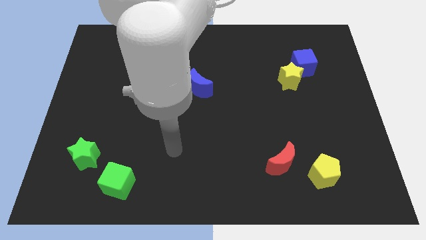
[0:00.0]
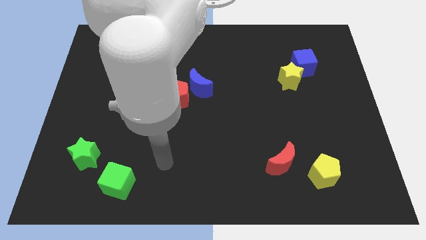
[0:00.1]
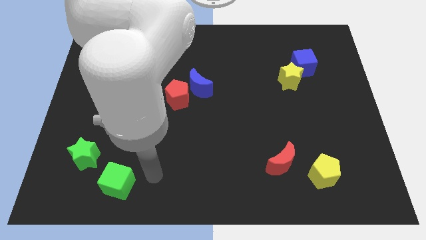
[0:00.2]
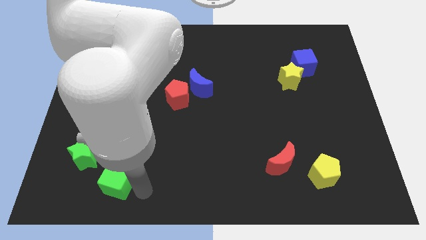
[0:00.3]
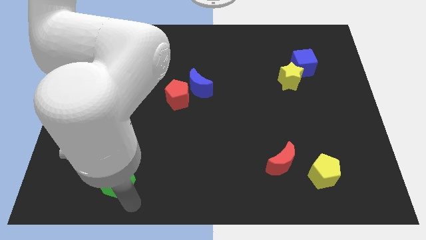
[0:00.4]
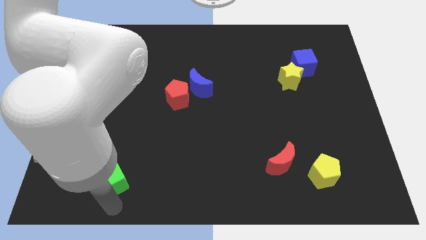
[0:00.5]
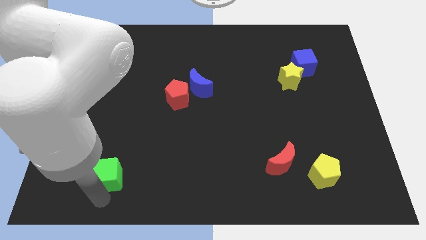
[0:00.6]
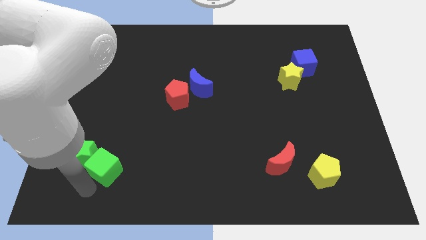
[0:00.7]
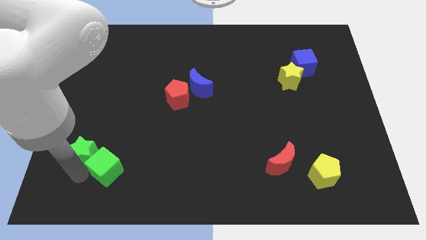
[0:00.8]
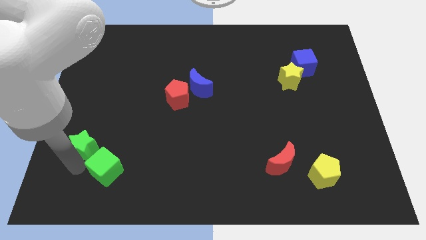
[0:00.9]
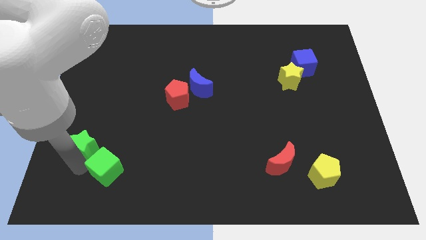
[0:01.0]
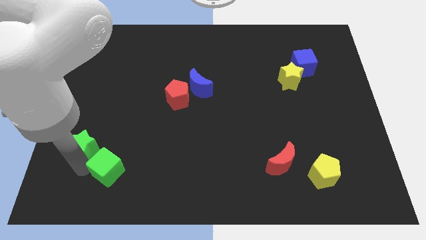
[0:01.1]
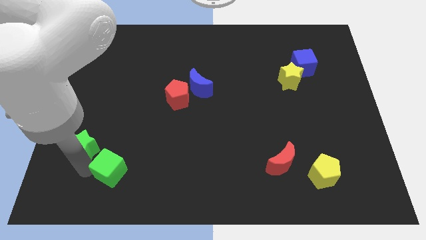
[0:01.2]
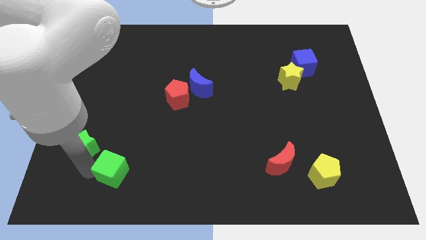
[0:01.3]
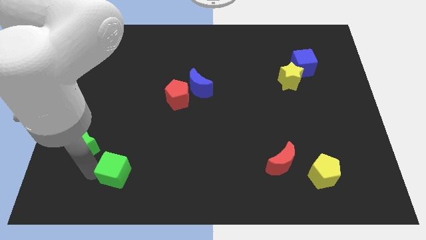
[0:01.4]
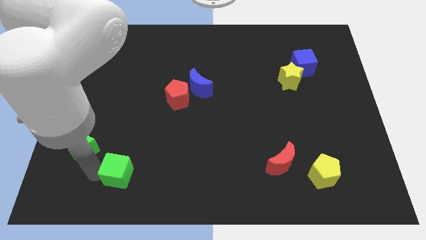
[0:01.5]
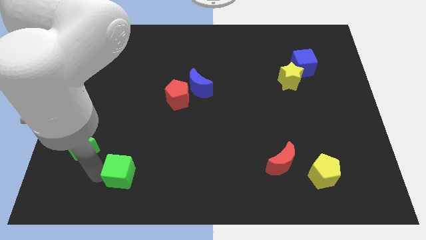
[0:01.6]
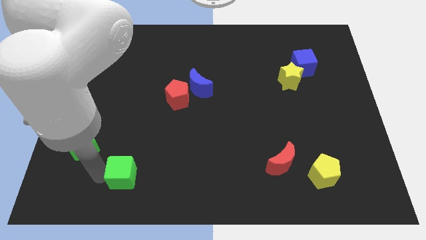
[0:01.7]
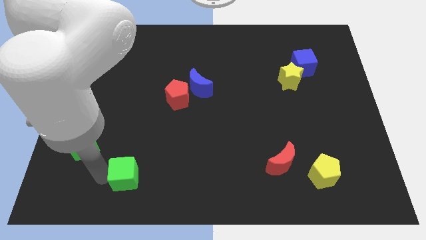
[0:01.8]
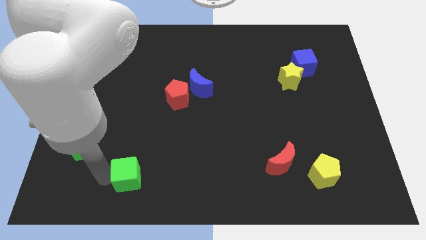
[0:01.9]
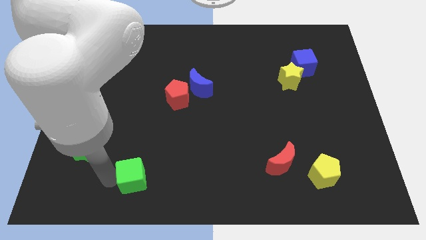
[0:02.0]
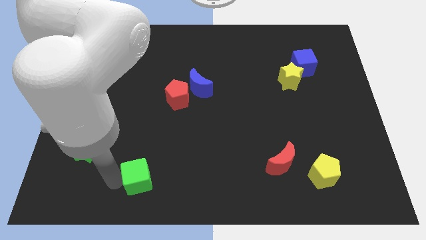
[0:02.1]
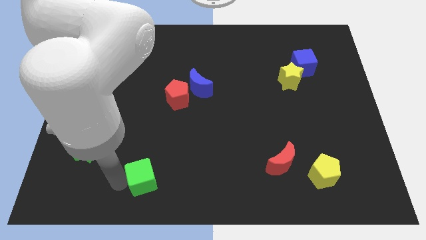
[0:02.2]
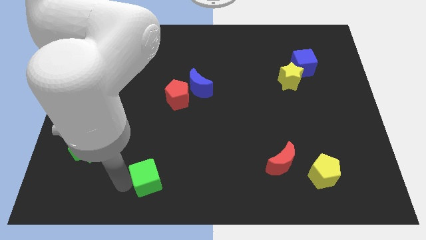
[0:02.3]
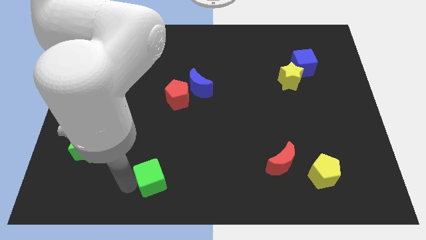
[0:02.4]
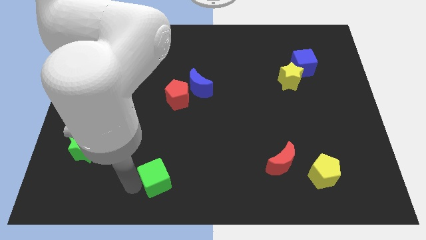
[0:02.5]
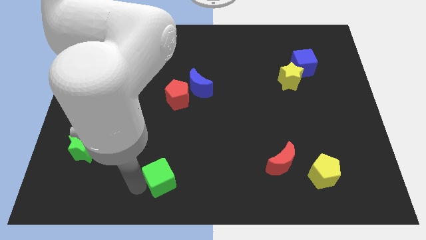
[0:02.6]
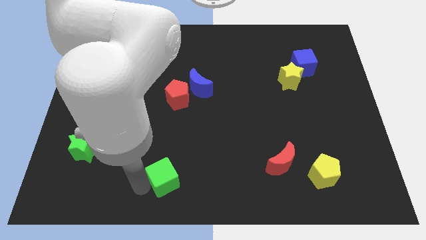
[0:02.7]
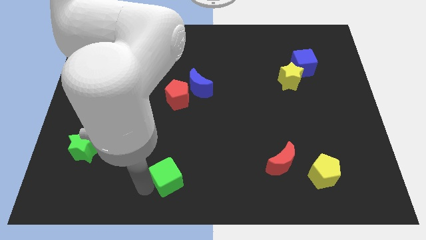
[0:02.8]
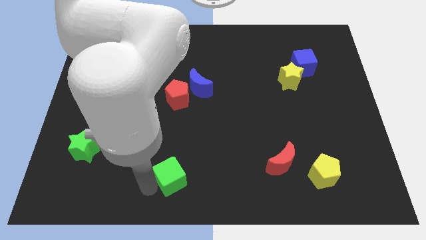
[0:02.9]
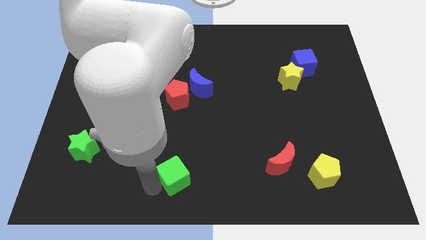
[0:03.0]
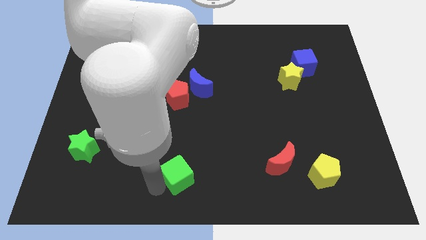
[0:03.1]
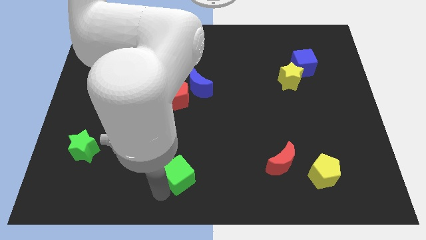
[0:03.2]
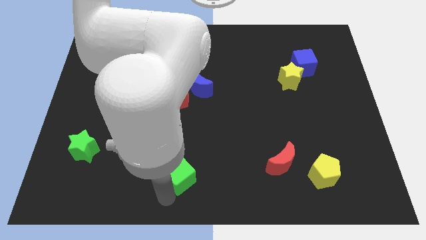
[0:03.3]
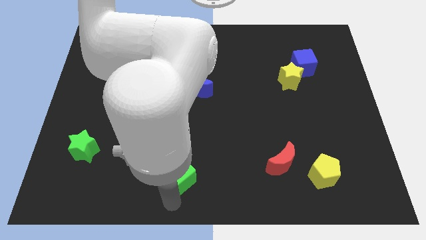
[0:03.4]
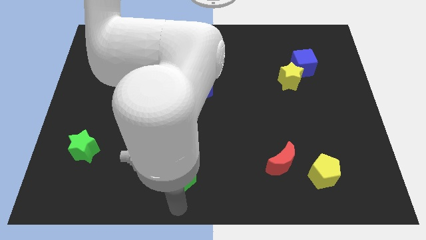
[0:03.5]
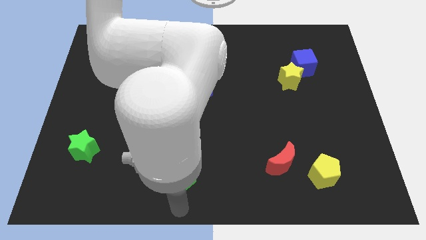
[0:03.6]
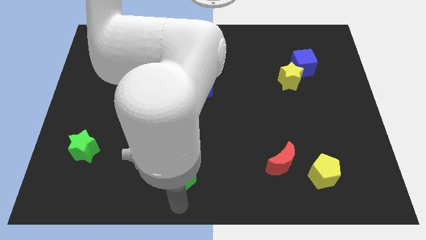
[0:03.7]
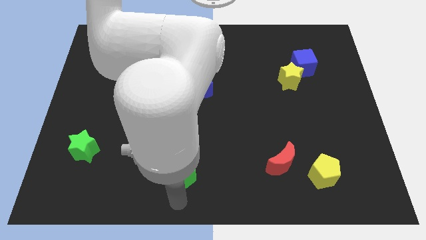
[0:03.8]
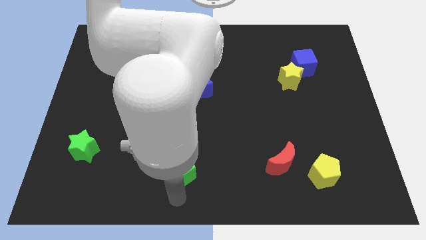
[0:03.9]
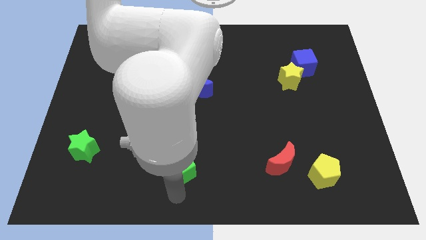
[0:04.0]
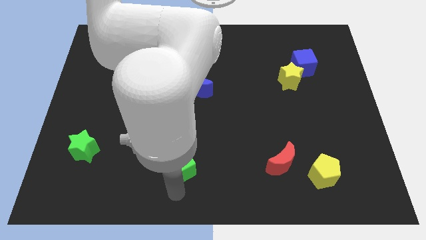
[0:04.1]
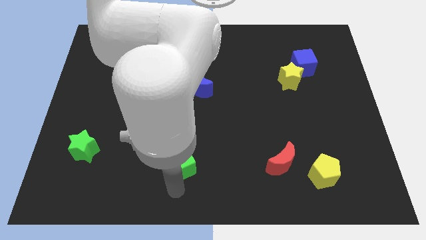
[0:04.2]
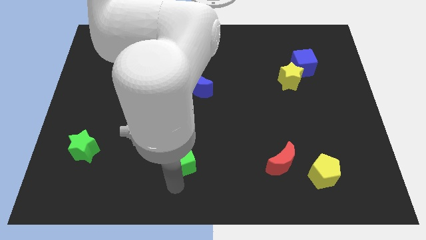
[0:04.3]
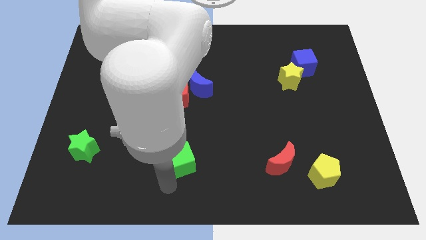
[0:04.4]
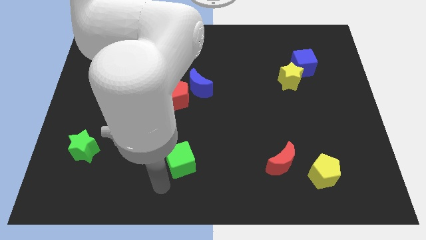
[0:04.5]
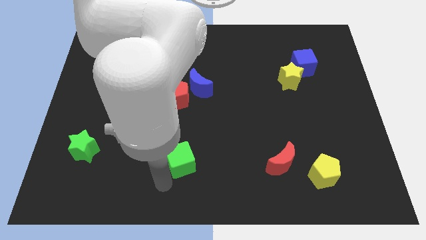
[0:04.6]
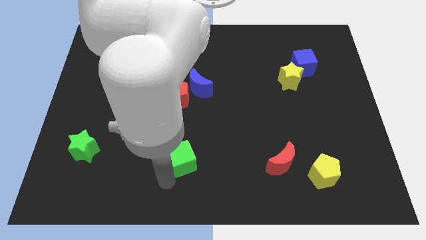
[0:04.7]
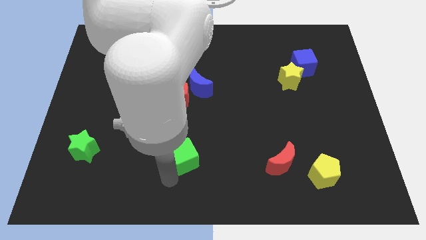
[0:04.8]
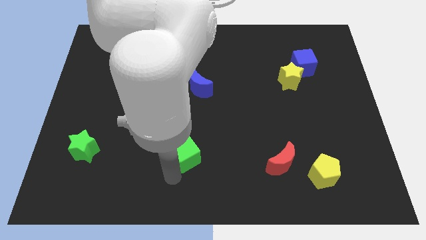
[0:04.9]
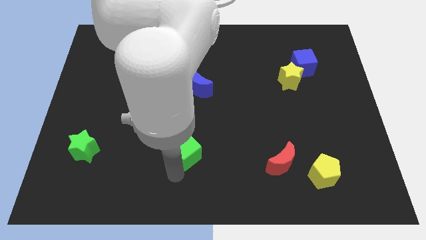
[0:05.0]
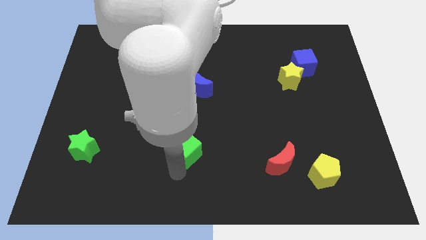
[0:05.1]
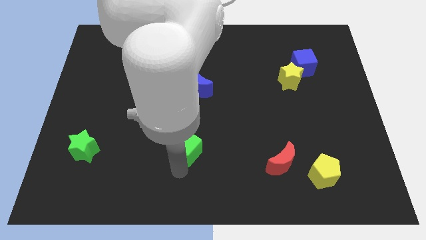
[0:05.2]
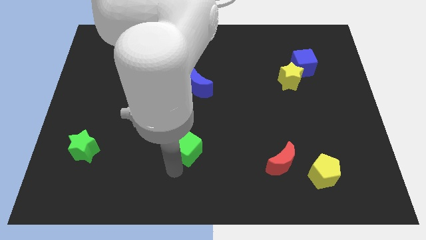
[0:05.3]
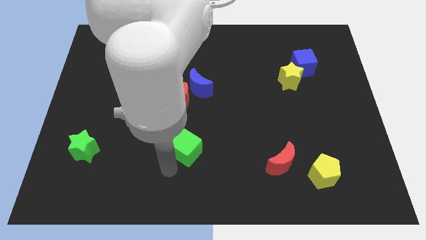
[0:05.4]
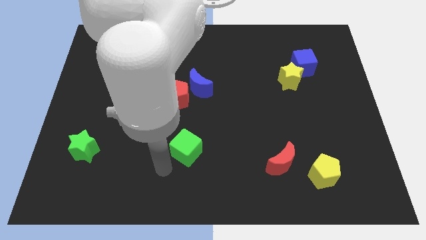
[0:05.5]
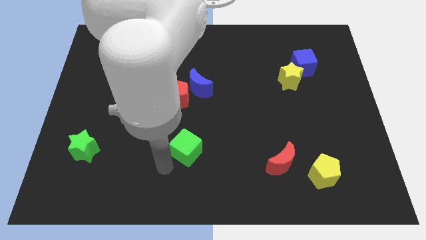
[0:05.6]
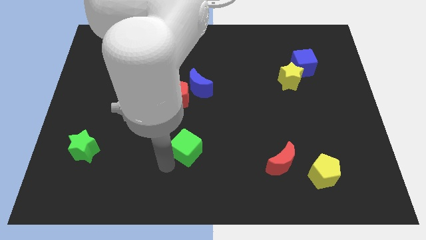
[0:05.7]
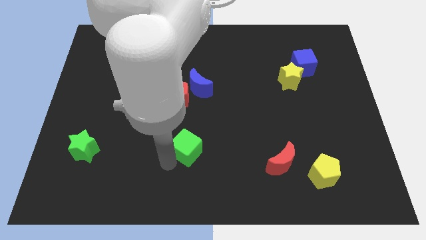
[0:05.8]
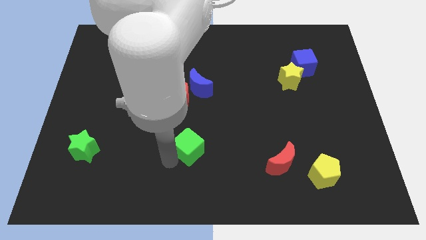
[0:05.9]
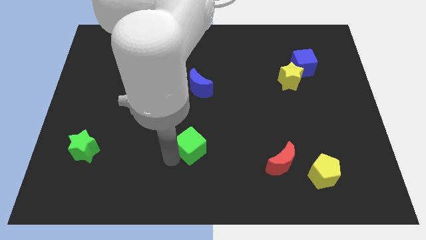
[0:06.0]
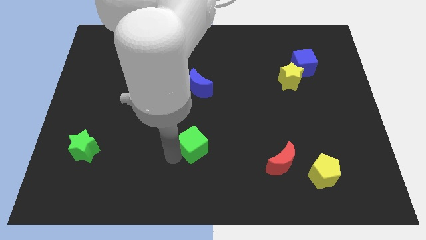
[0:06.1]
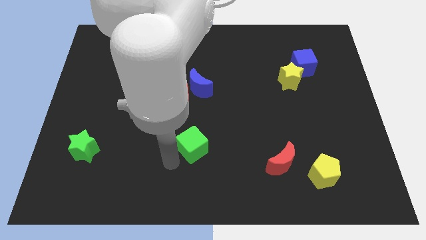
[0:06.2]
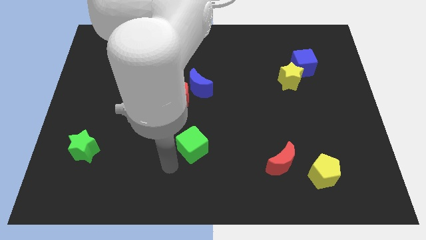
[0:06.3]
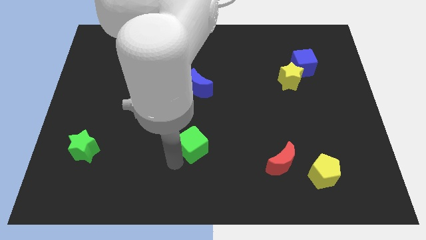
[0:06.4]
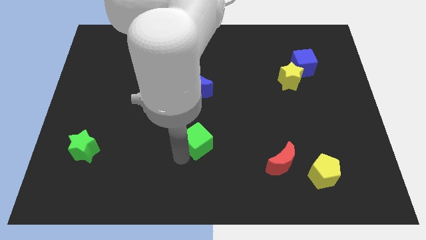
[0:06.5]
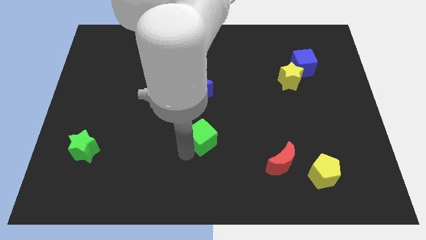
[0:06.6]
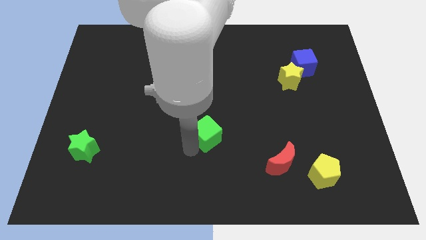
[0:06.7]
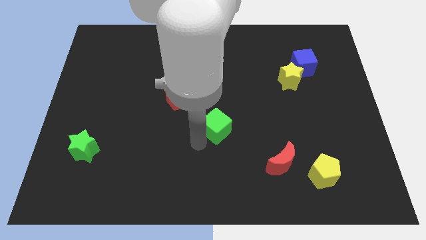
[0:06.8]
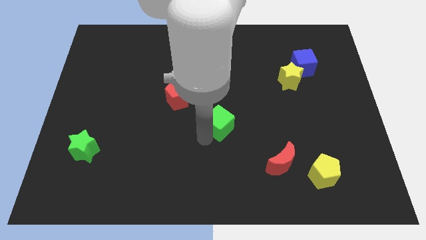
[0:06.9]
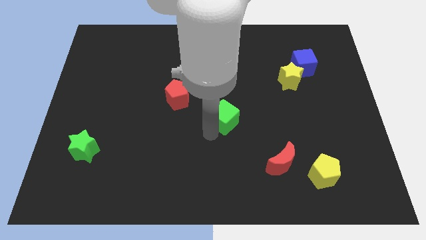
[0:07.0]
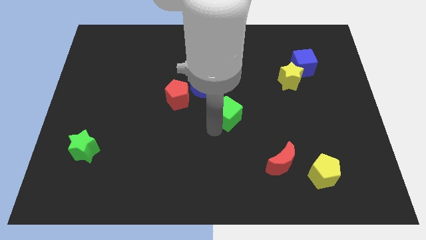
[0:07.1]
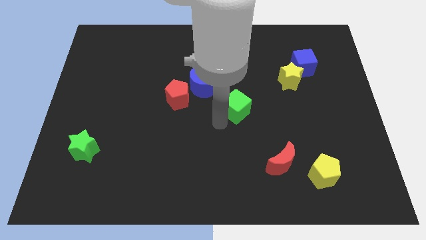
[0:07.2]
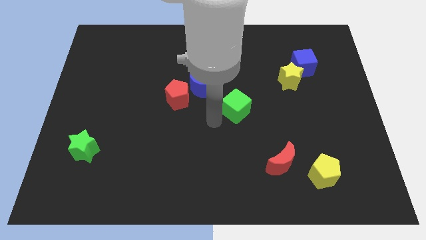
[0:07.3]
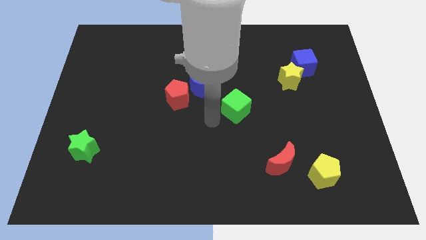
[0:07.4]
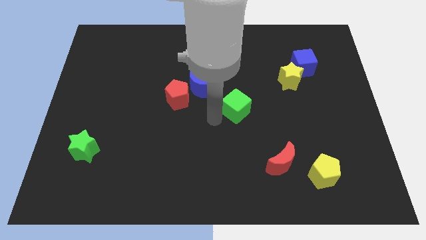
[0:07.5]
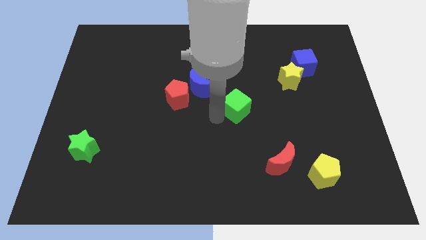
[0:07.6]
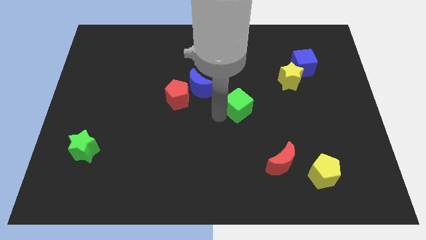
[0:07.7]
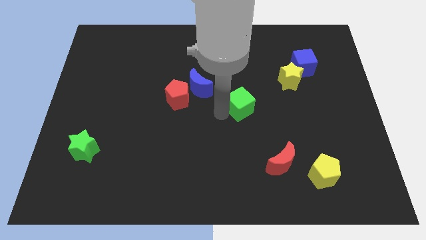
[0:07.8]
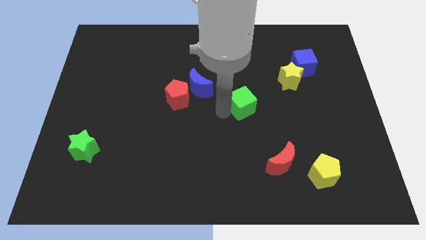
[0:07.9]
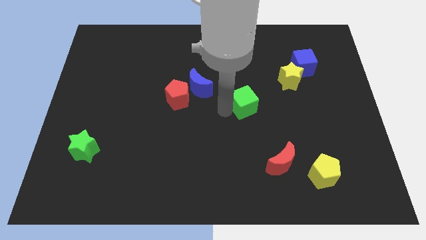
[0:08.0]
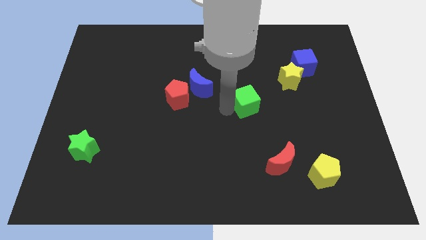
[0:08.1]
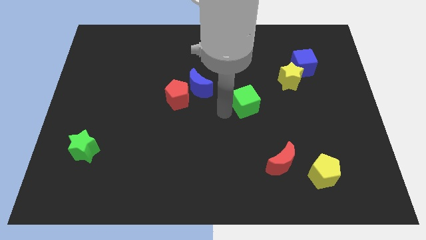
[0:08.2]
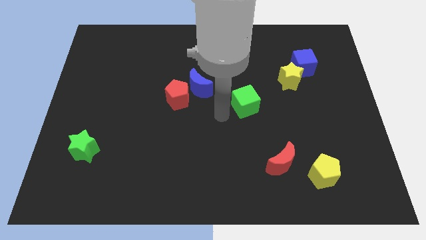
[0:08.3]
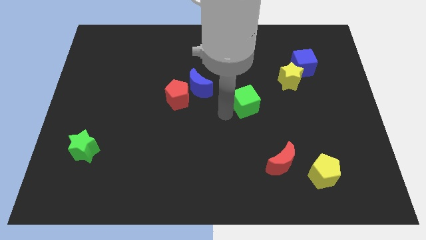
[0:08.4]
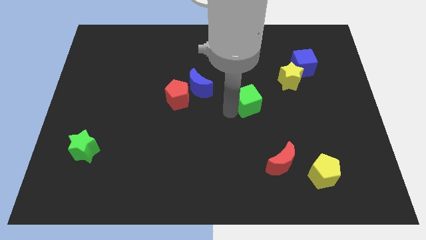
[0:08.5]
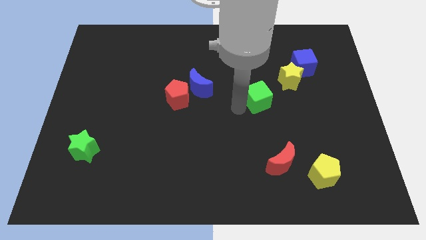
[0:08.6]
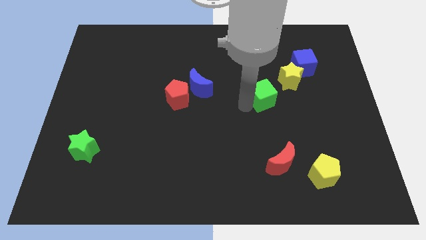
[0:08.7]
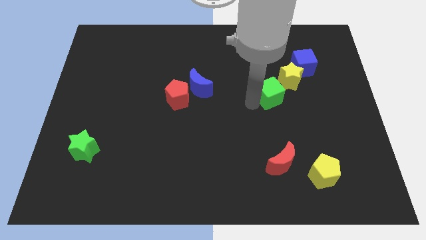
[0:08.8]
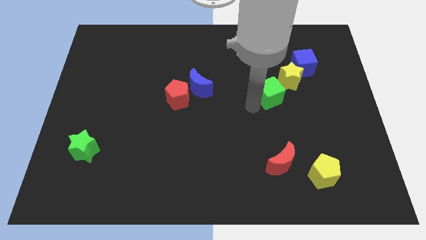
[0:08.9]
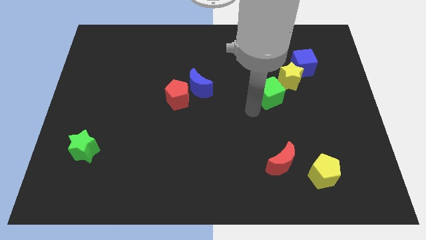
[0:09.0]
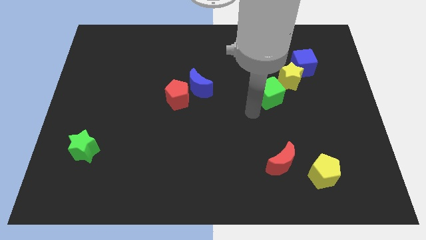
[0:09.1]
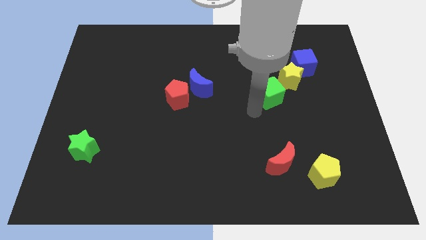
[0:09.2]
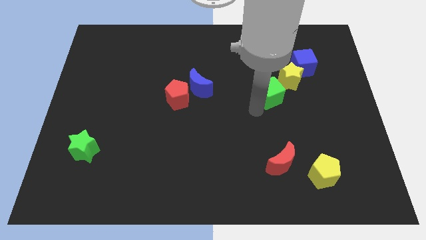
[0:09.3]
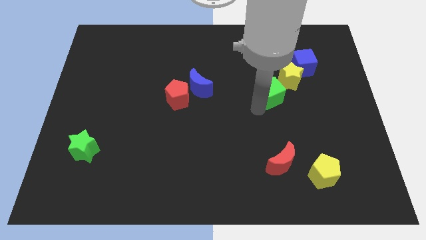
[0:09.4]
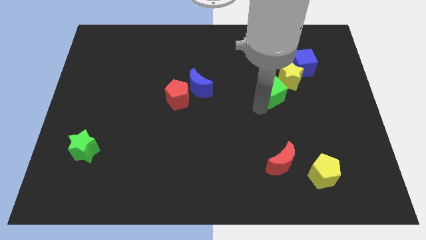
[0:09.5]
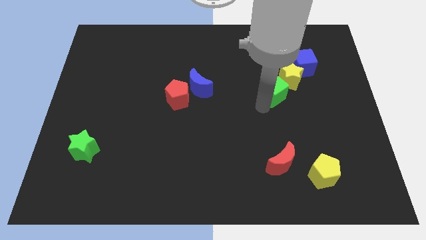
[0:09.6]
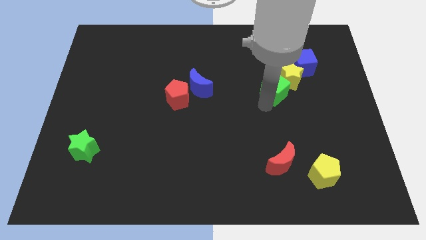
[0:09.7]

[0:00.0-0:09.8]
put the green cube next to the yellow star
